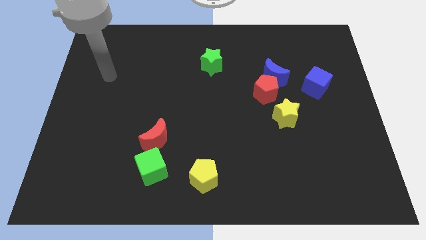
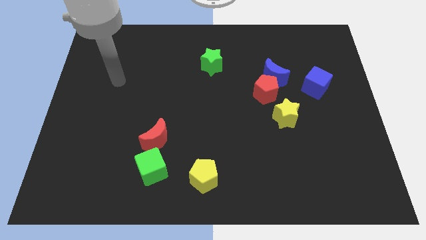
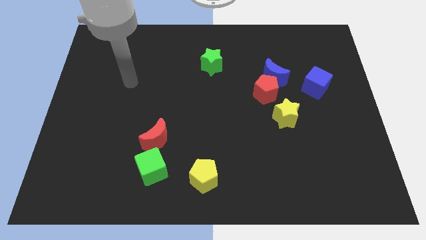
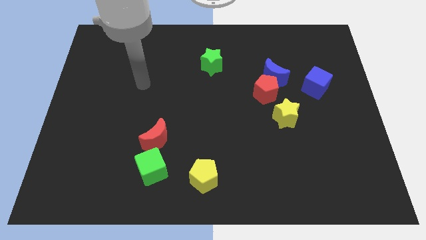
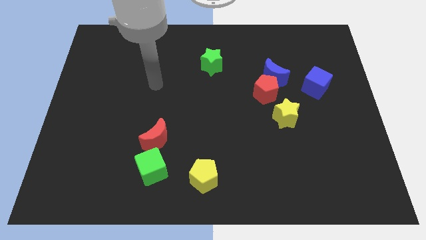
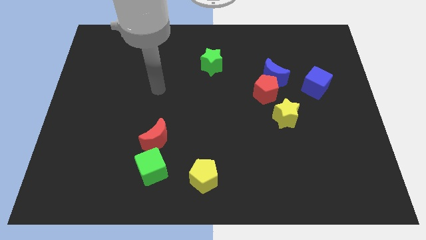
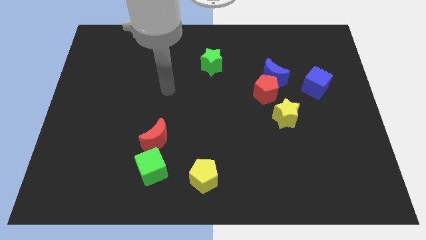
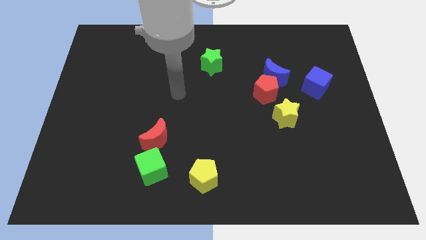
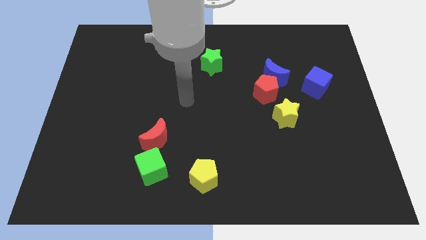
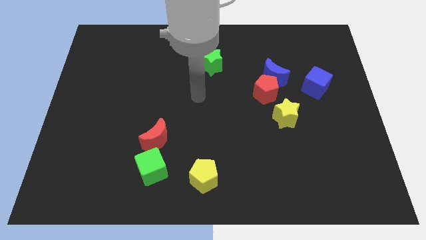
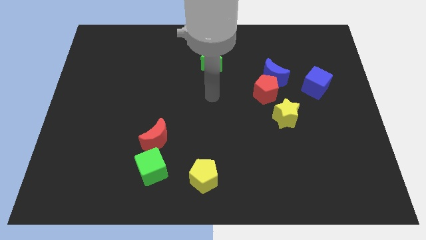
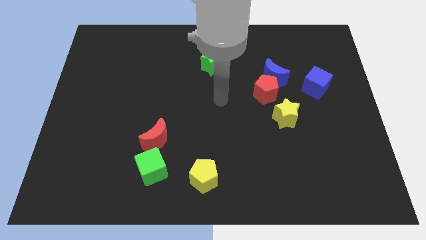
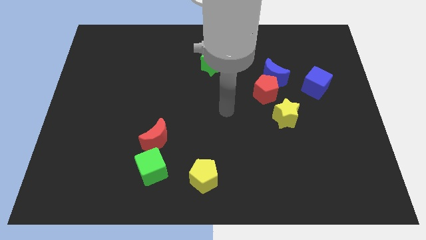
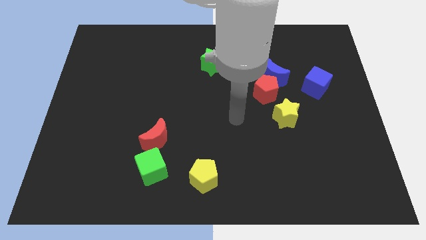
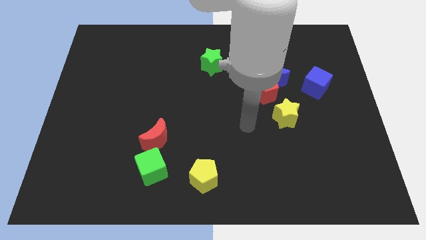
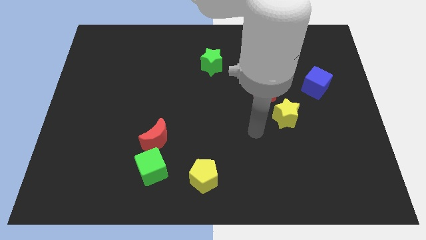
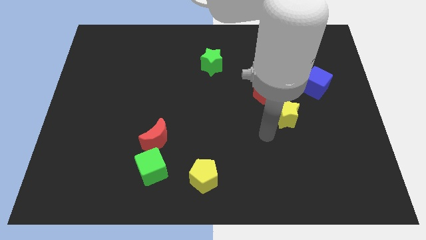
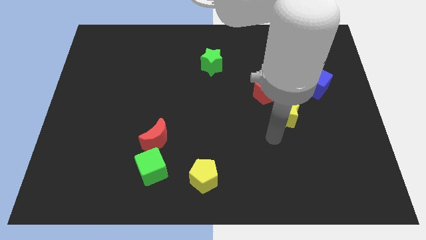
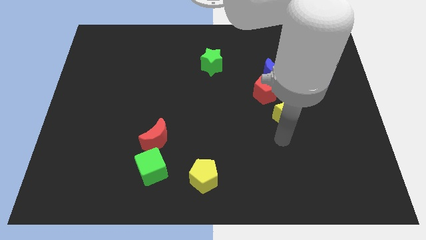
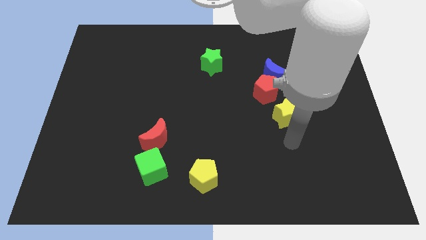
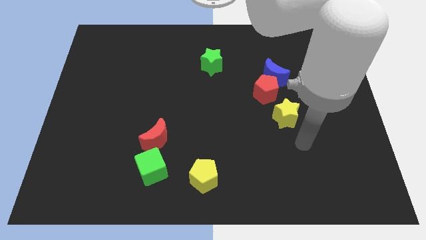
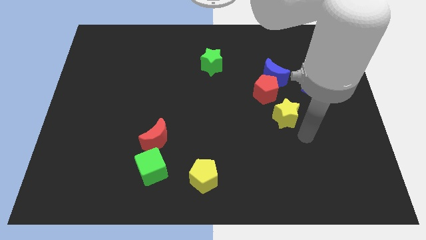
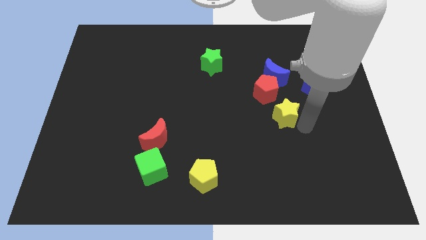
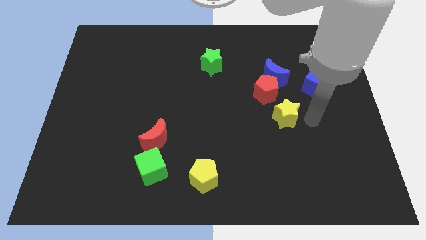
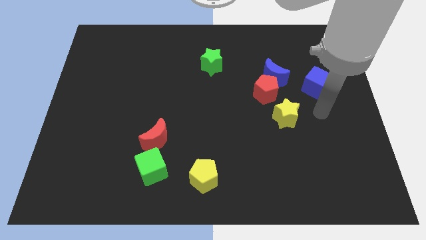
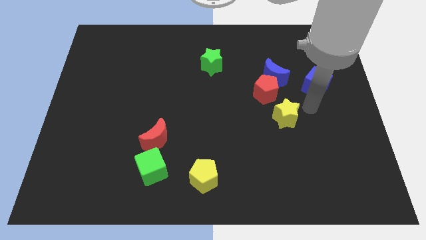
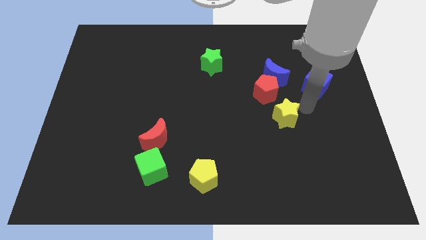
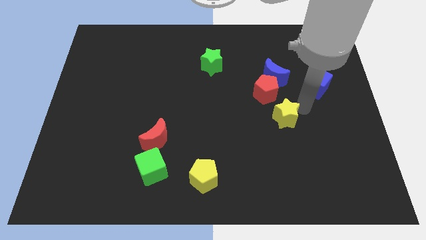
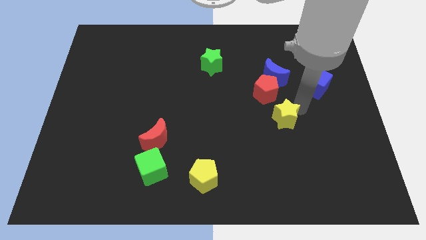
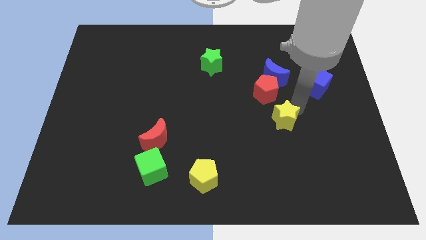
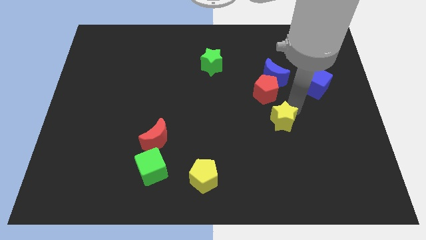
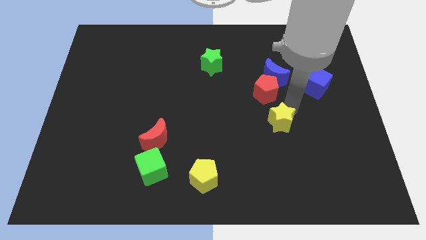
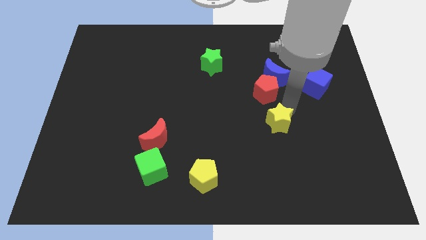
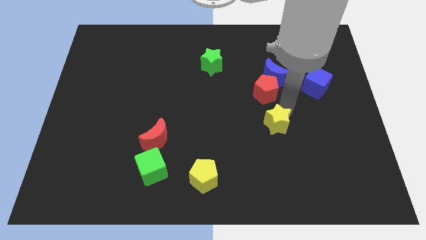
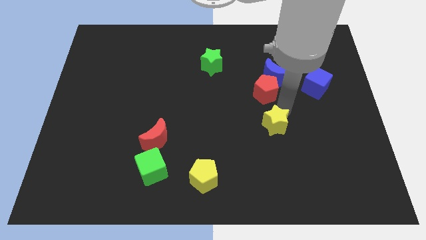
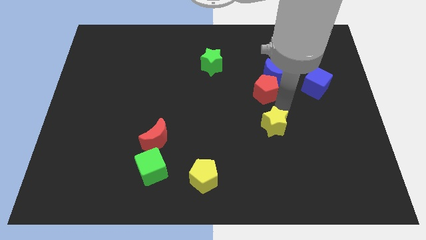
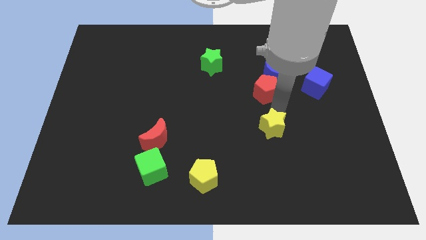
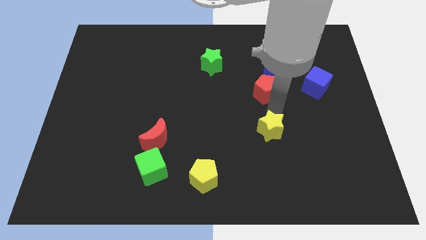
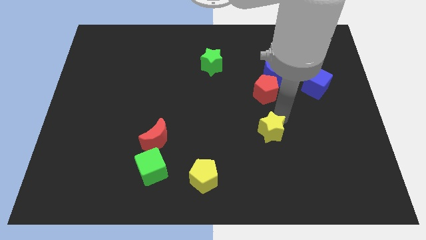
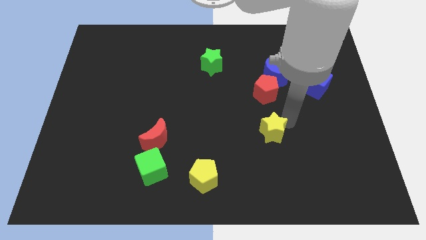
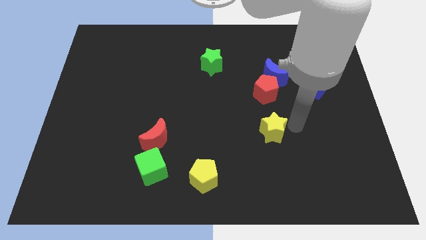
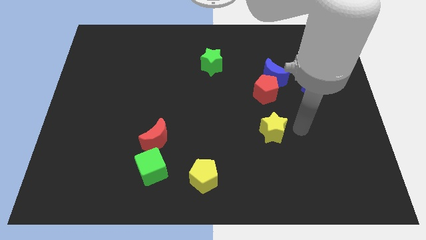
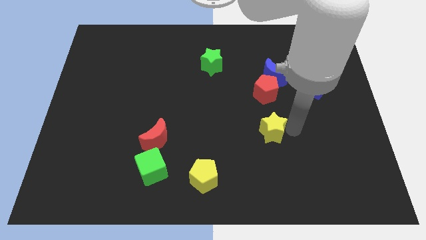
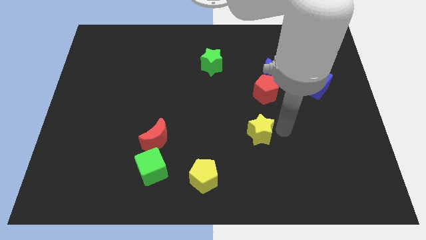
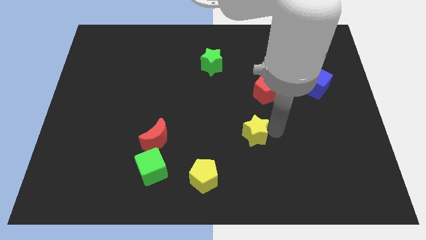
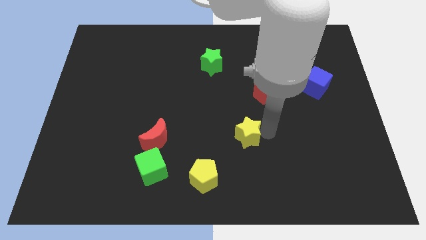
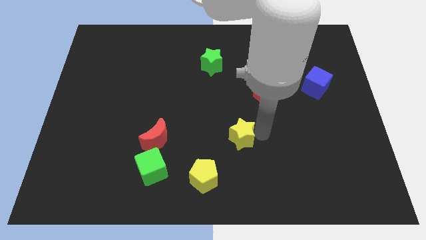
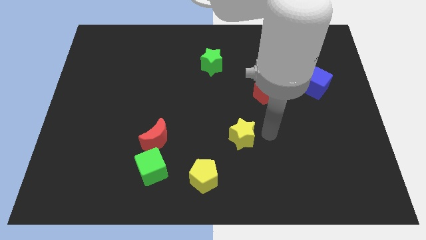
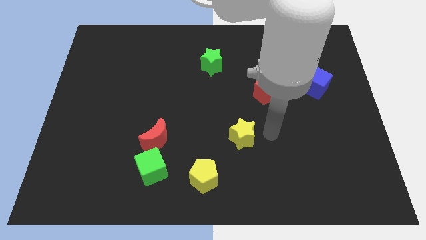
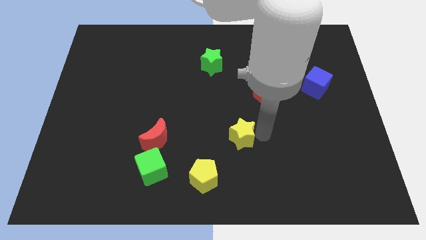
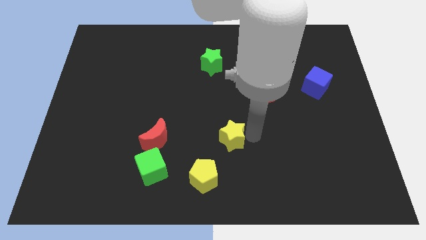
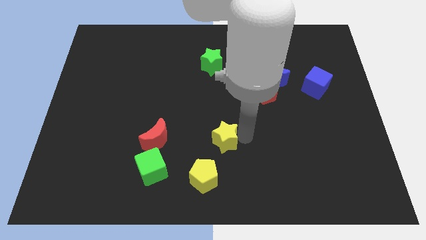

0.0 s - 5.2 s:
put the yellow star right of the red moon

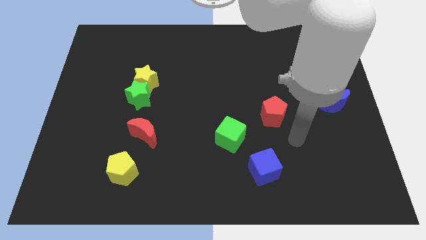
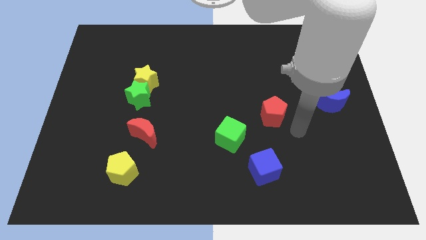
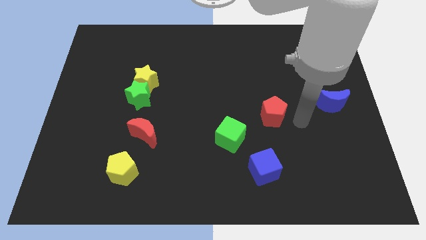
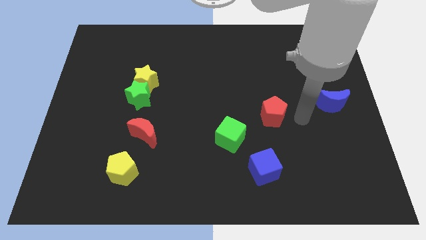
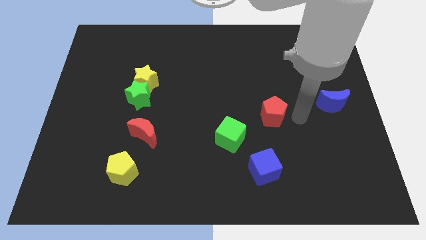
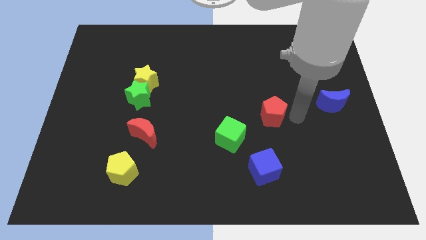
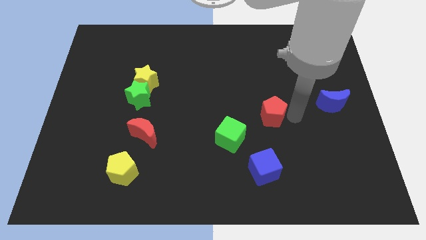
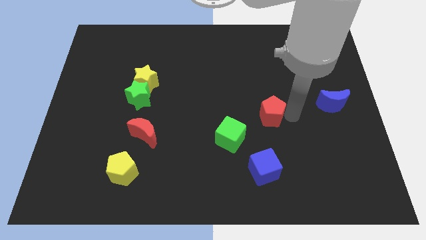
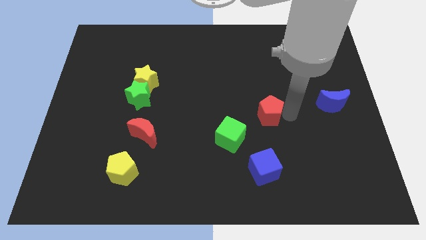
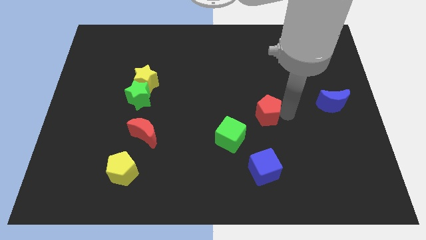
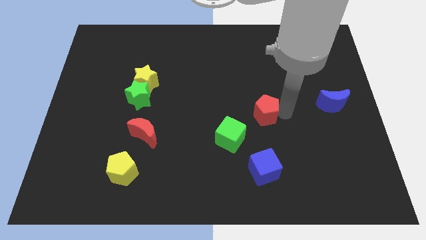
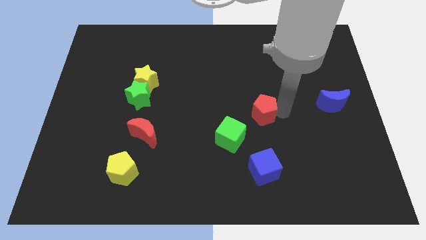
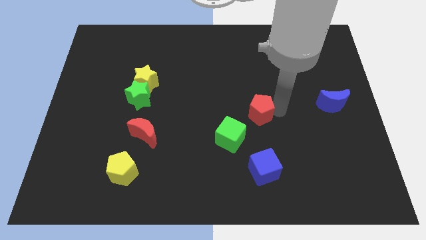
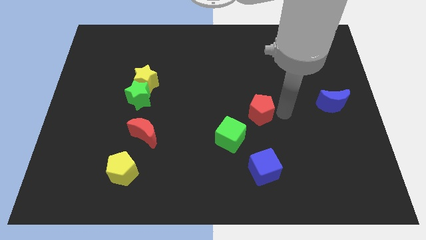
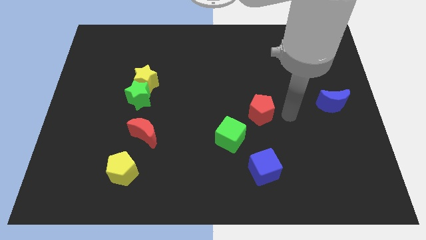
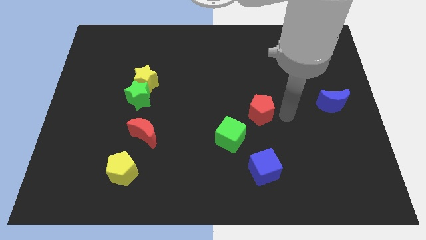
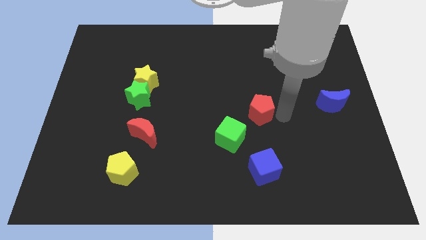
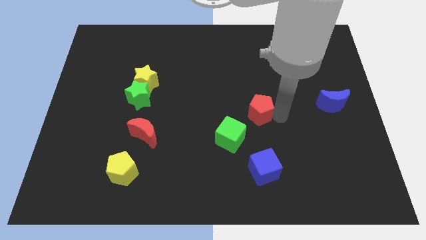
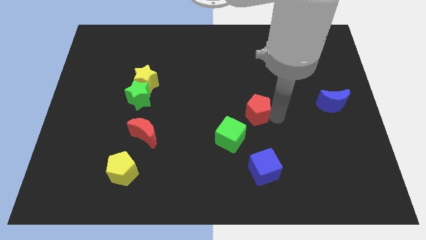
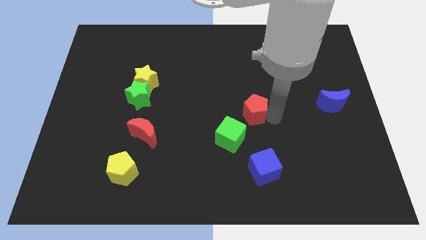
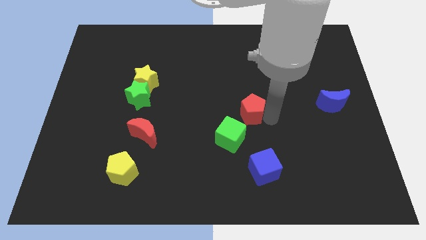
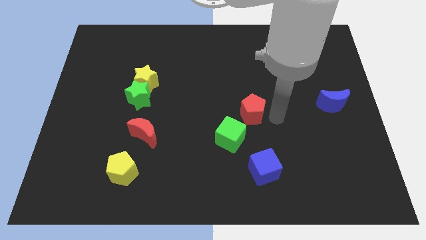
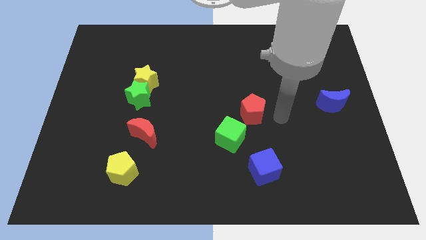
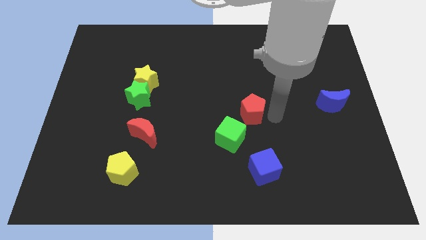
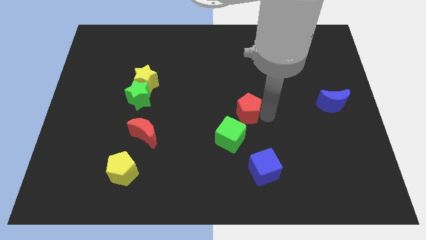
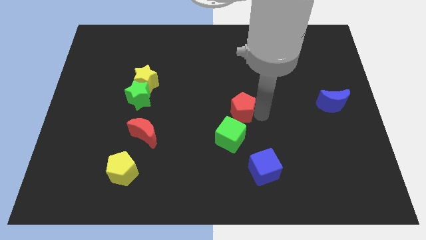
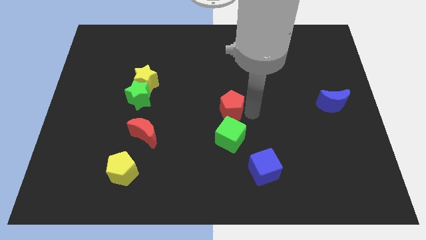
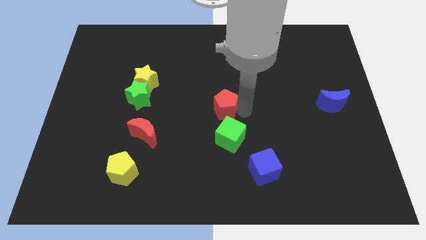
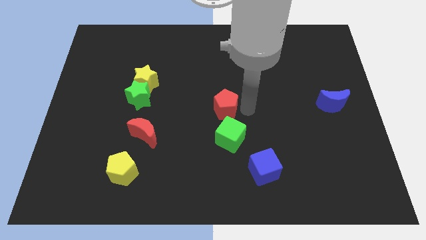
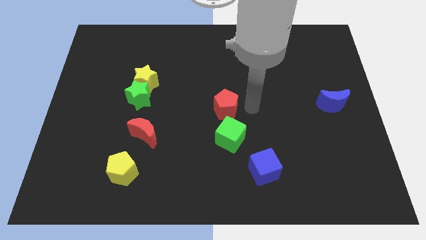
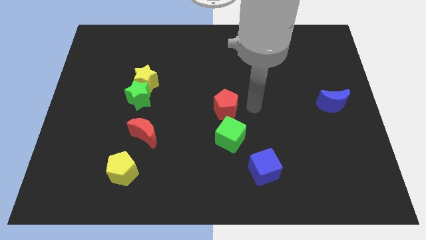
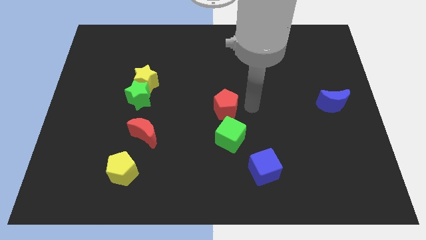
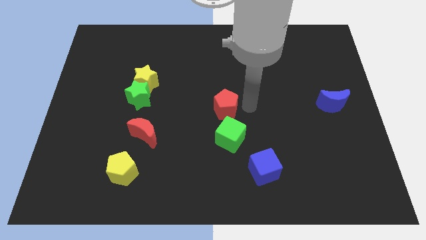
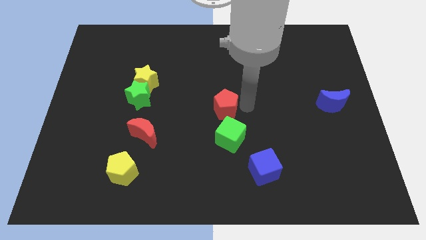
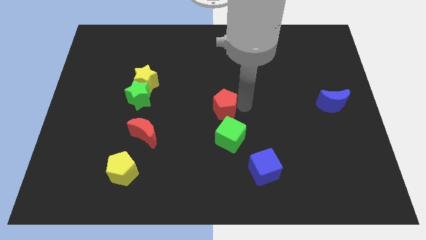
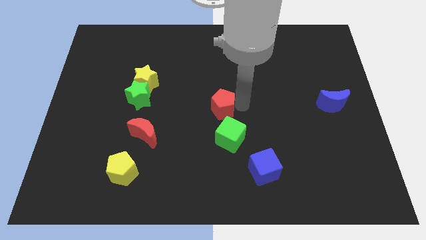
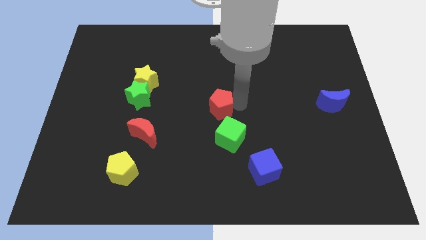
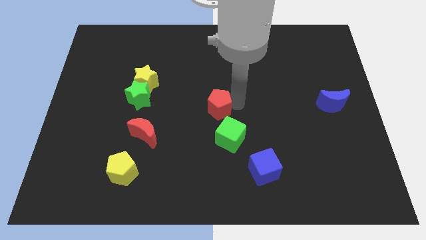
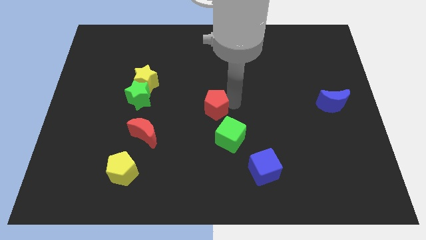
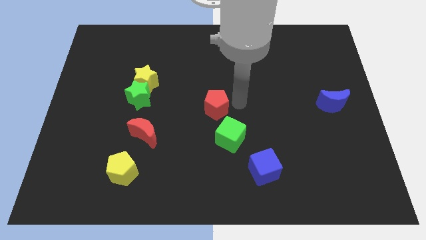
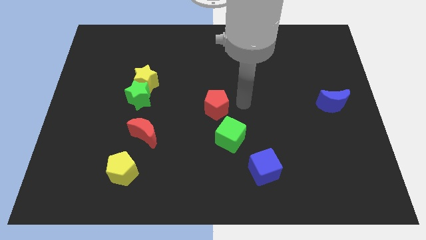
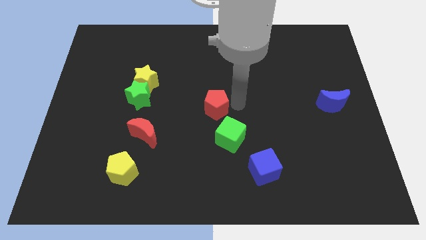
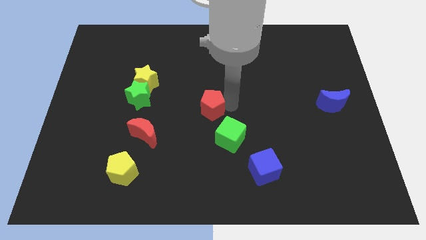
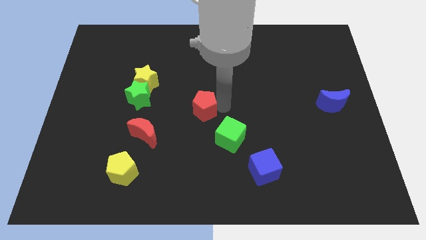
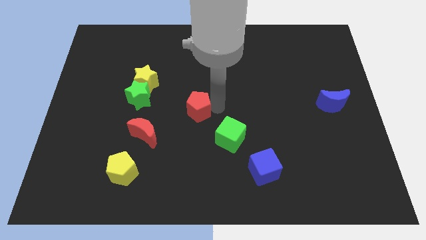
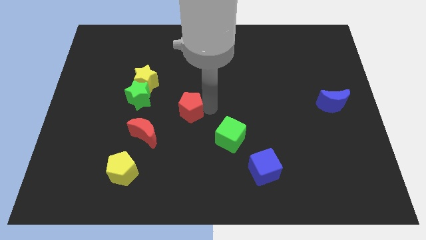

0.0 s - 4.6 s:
move the red pentagon to the top right of the red moon
